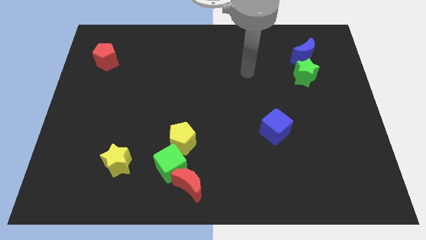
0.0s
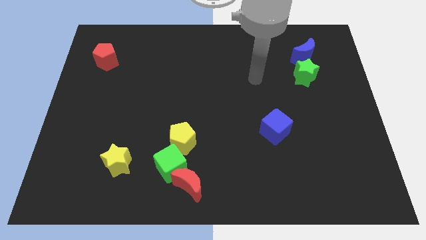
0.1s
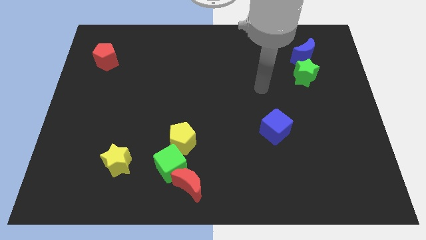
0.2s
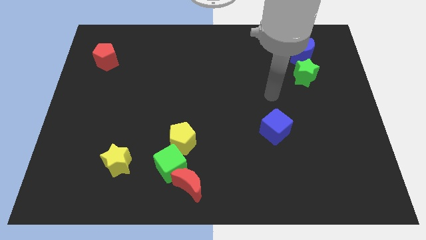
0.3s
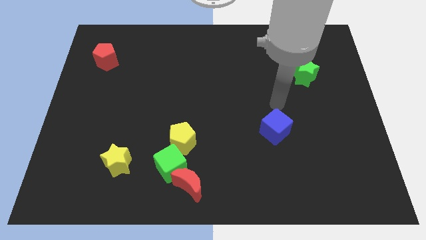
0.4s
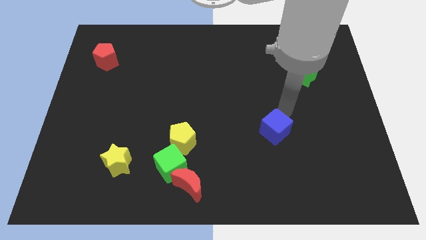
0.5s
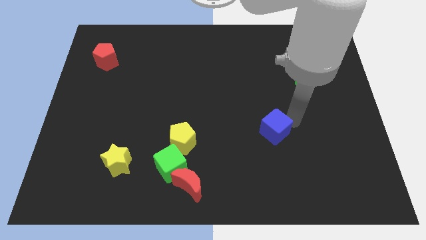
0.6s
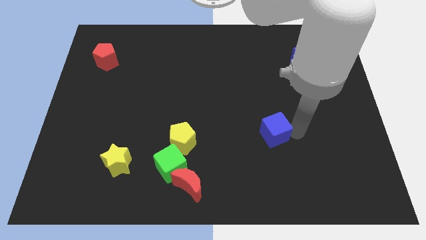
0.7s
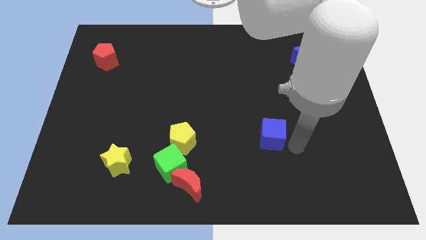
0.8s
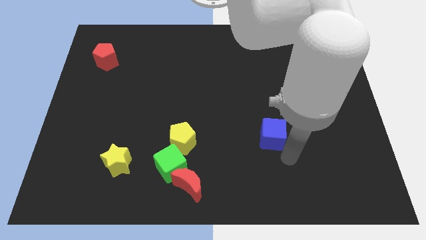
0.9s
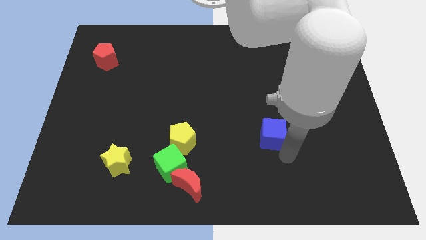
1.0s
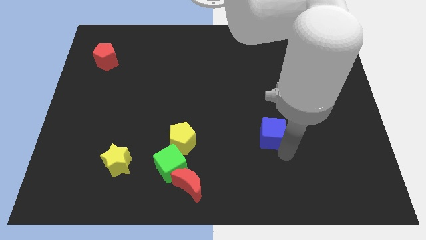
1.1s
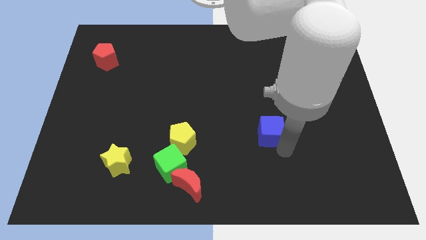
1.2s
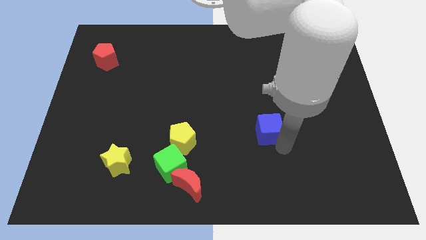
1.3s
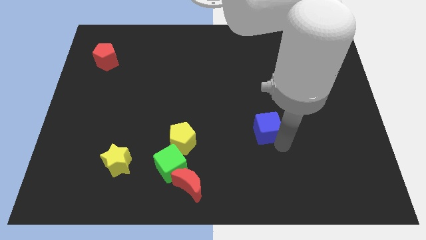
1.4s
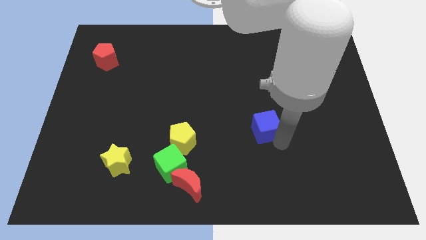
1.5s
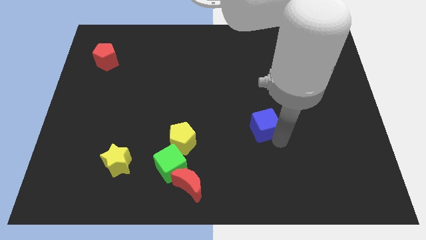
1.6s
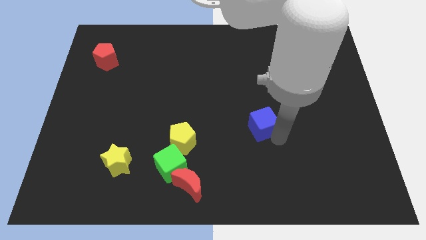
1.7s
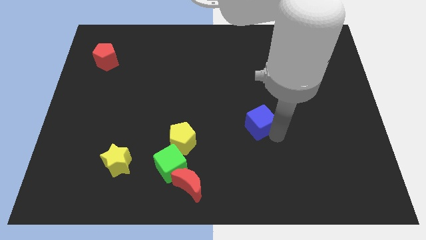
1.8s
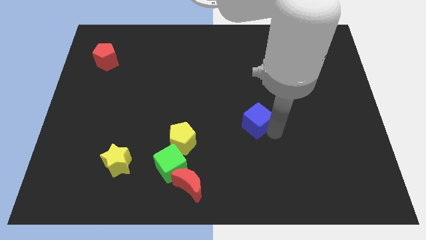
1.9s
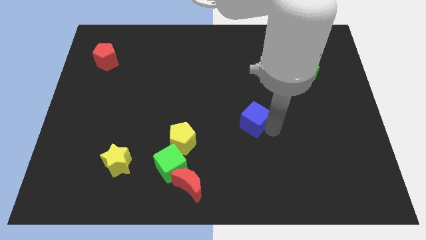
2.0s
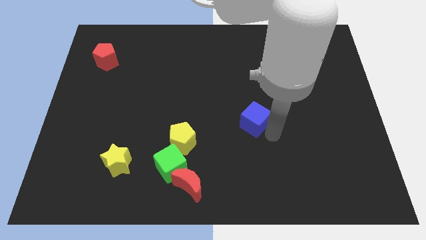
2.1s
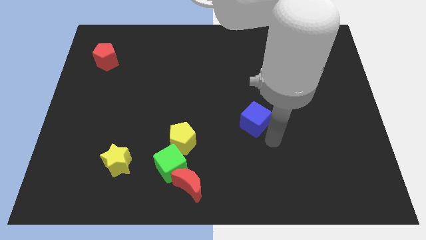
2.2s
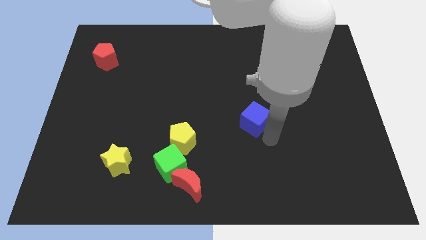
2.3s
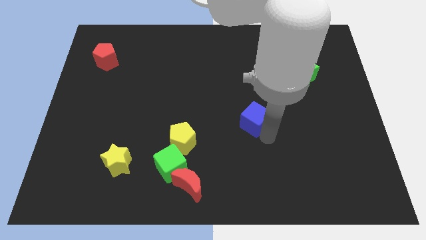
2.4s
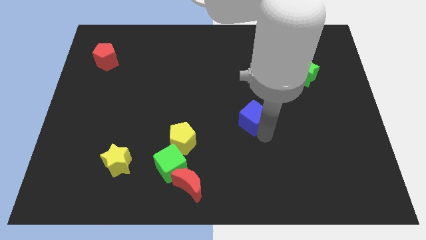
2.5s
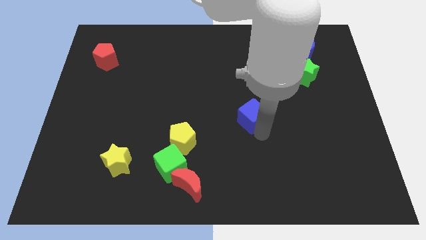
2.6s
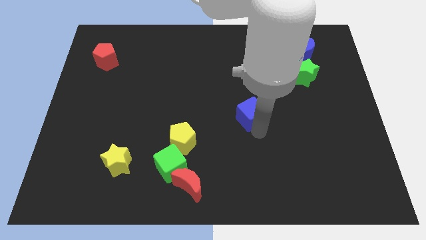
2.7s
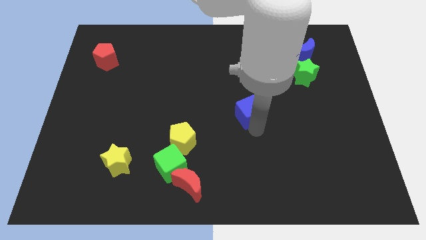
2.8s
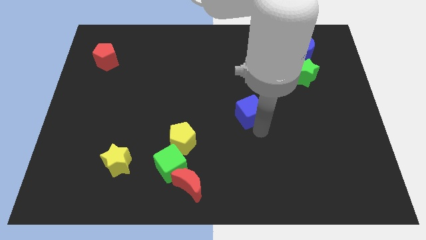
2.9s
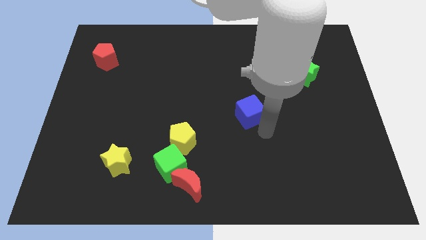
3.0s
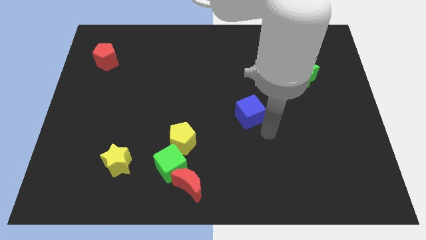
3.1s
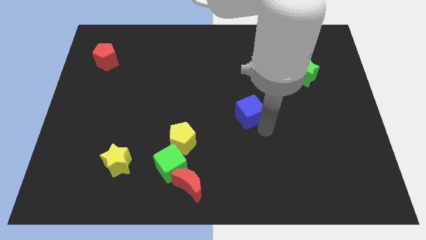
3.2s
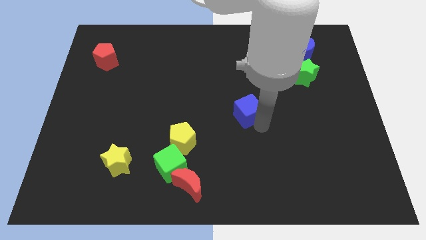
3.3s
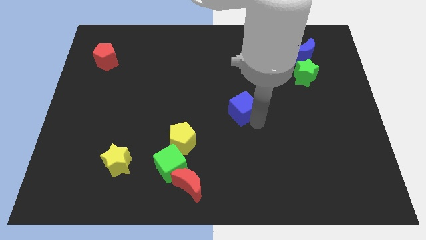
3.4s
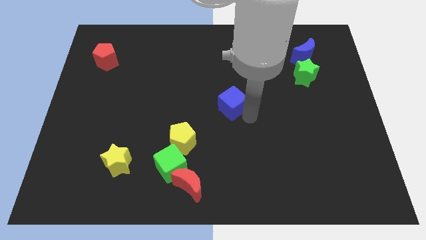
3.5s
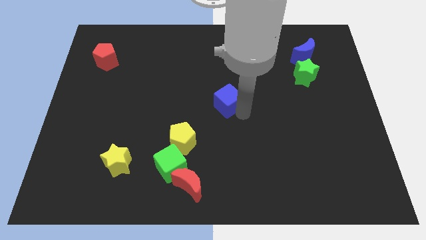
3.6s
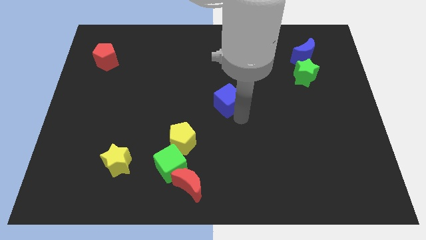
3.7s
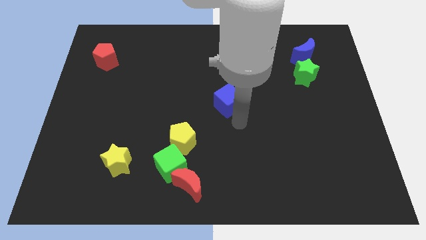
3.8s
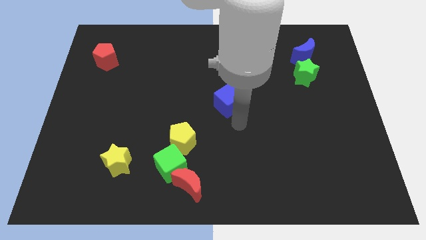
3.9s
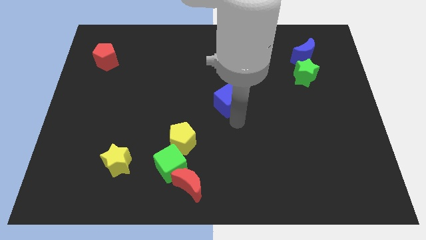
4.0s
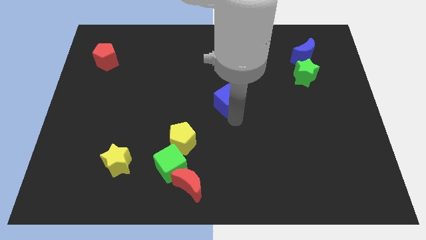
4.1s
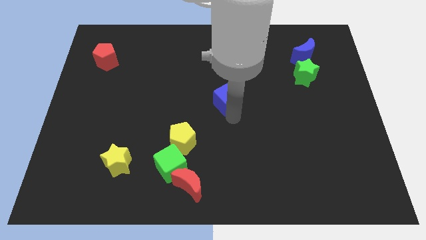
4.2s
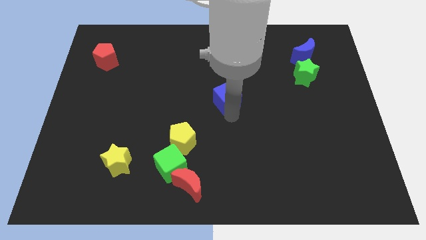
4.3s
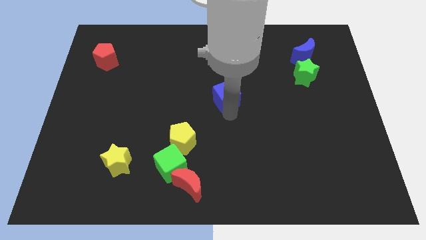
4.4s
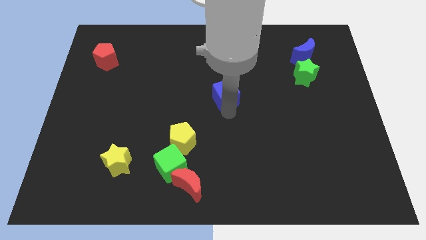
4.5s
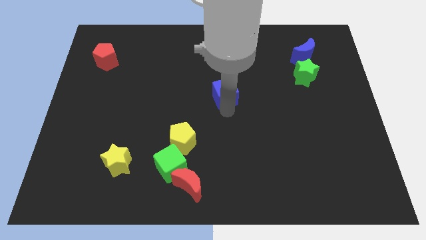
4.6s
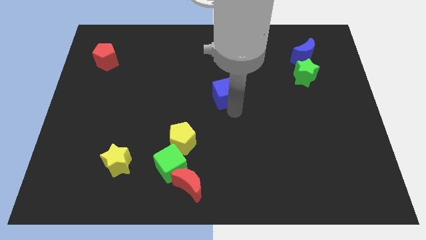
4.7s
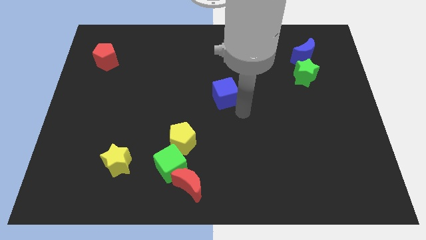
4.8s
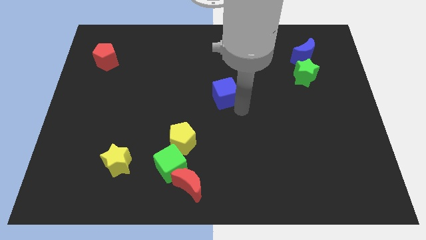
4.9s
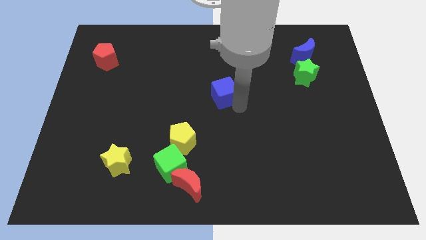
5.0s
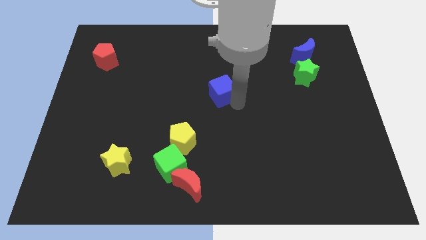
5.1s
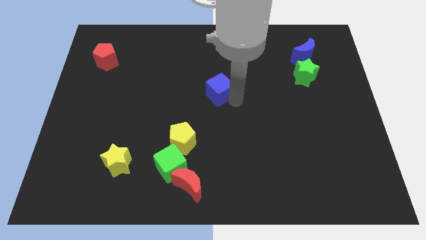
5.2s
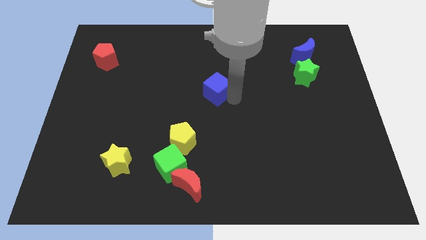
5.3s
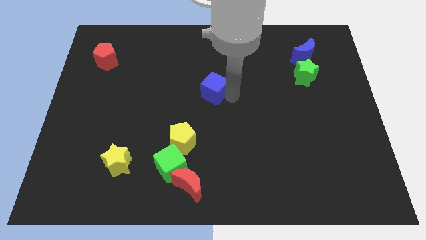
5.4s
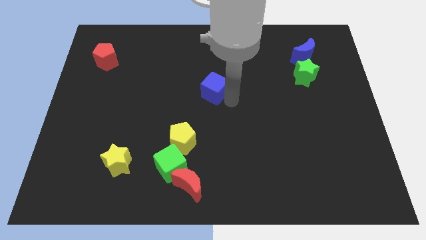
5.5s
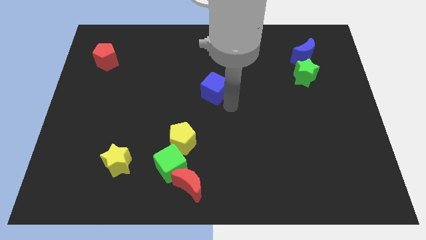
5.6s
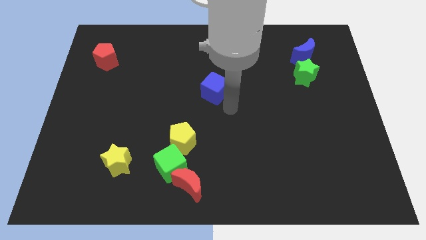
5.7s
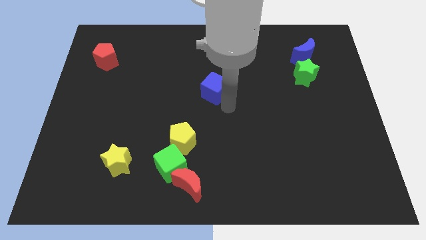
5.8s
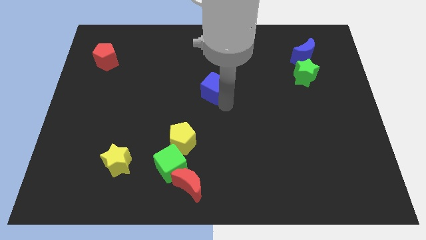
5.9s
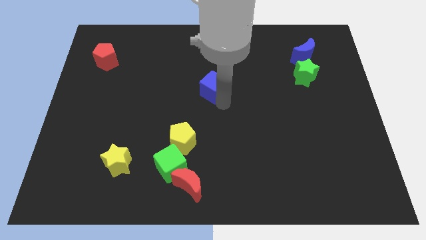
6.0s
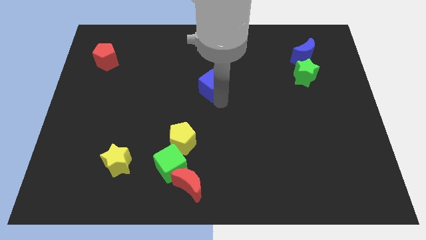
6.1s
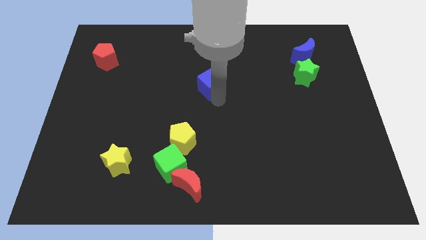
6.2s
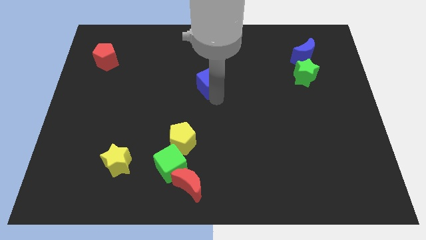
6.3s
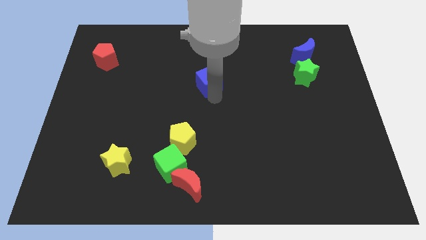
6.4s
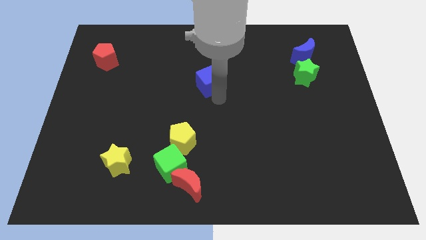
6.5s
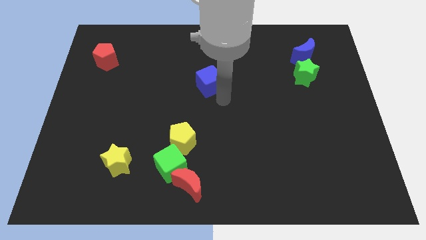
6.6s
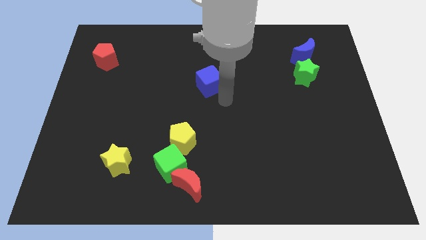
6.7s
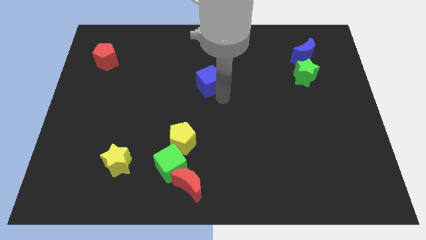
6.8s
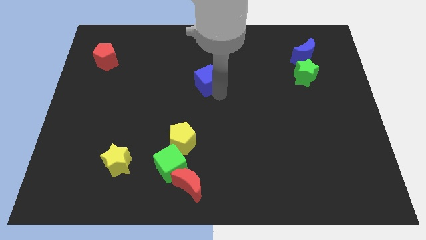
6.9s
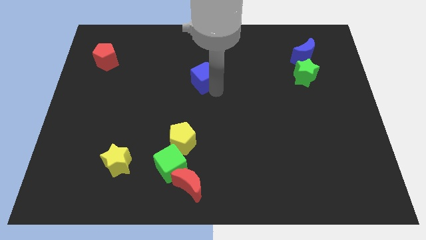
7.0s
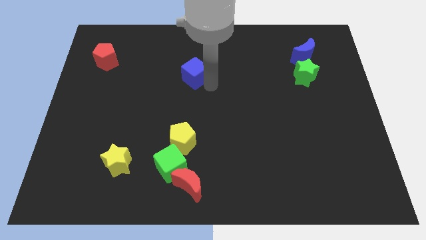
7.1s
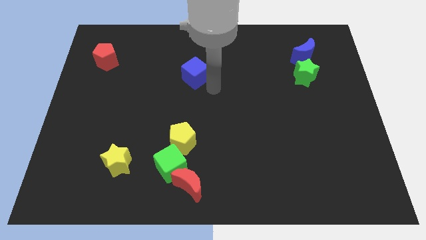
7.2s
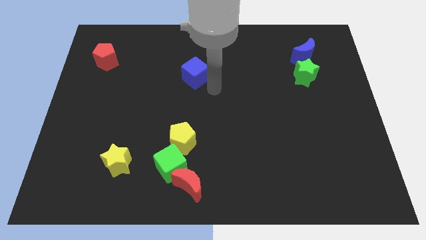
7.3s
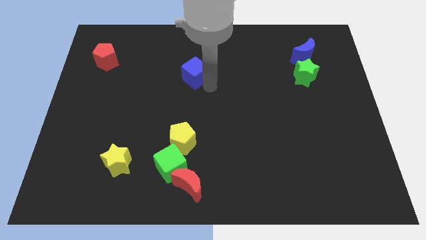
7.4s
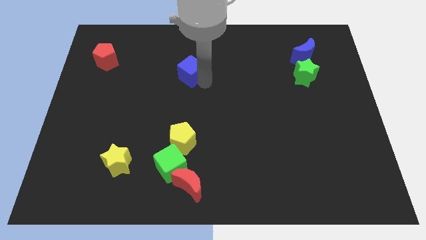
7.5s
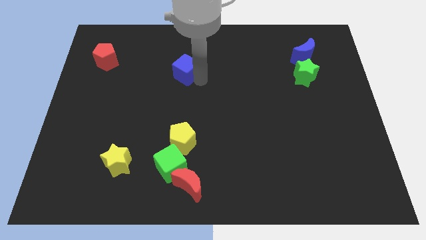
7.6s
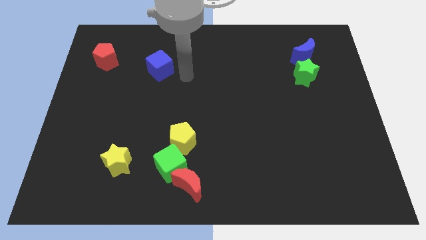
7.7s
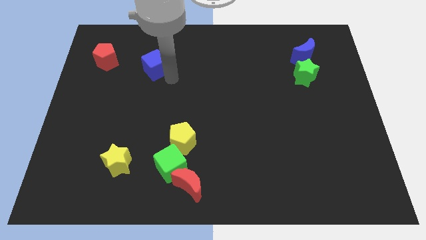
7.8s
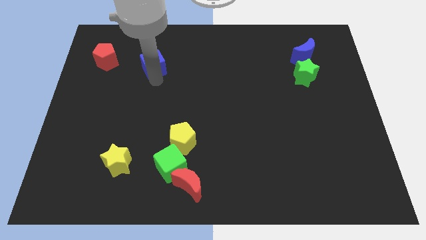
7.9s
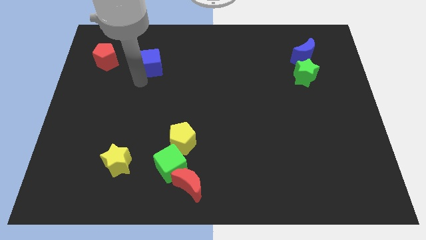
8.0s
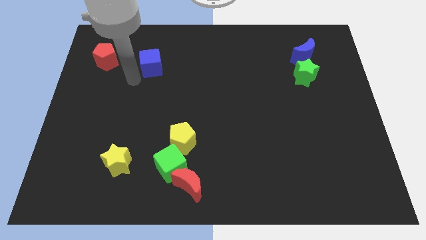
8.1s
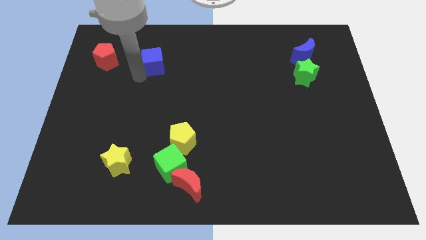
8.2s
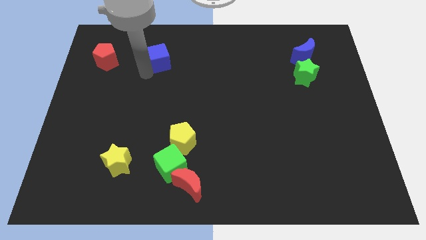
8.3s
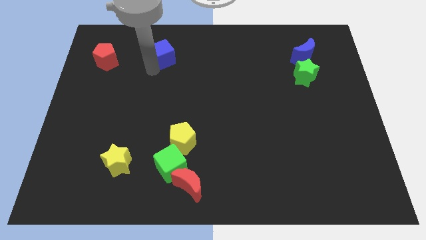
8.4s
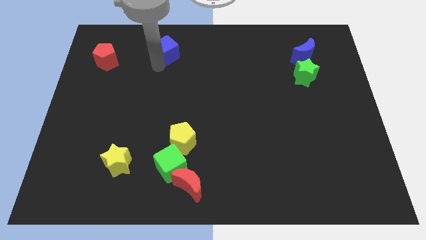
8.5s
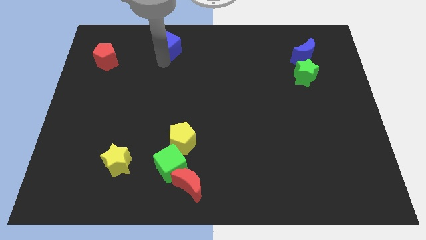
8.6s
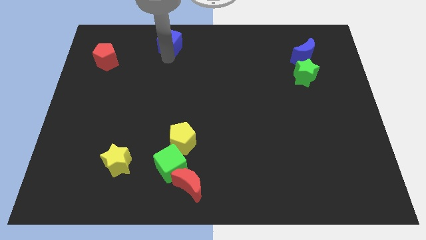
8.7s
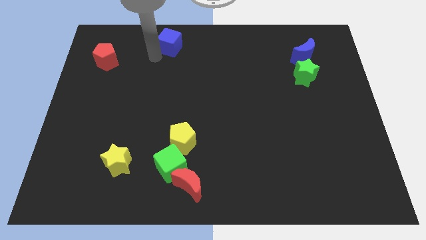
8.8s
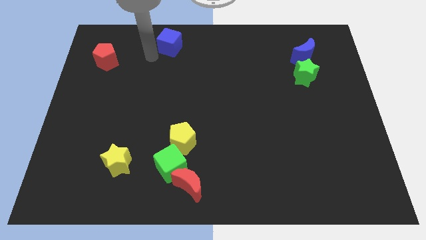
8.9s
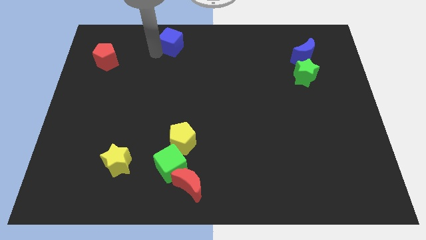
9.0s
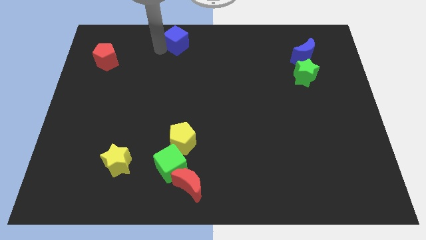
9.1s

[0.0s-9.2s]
push the blue cube to the top
